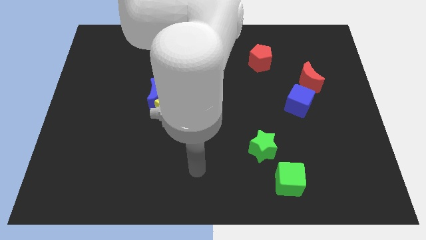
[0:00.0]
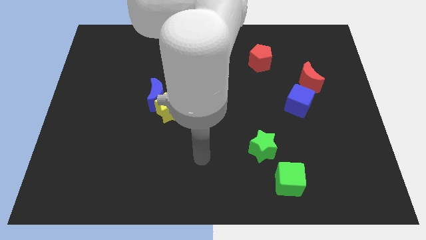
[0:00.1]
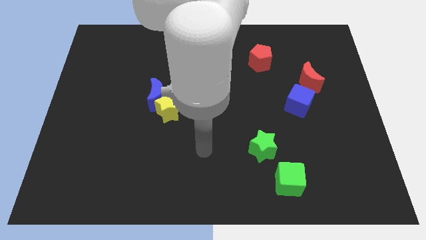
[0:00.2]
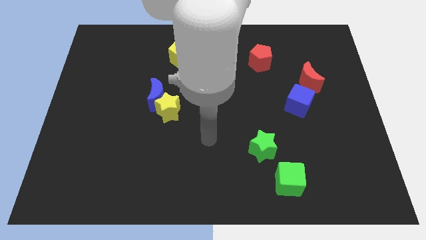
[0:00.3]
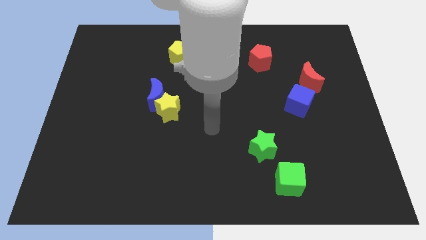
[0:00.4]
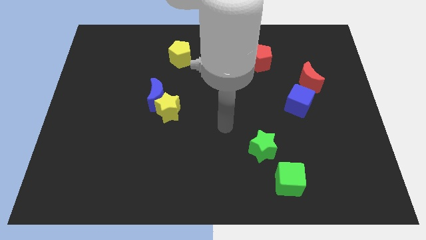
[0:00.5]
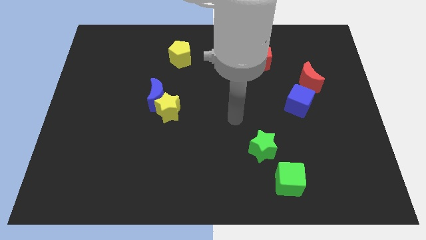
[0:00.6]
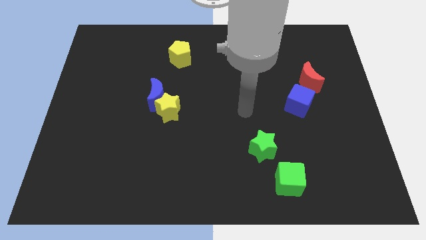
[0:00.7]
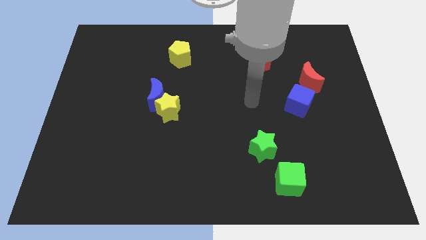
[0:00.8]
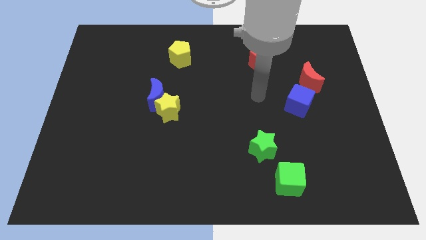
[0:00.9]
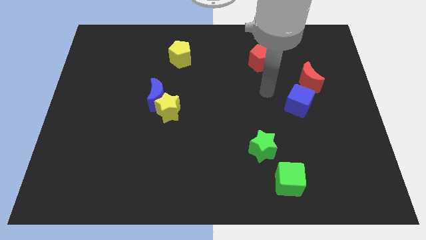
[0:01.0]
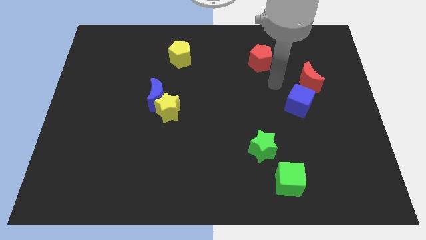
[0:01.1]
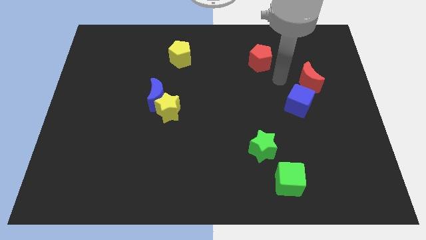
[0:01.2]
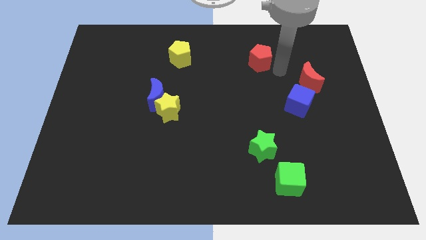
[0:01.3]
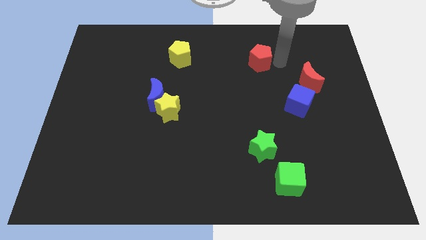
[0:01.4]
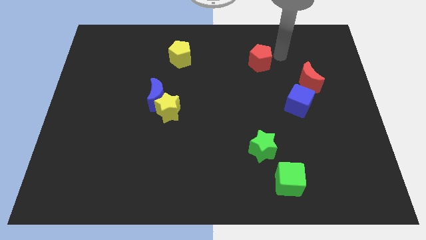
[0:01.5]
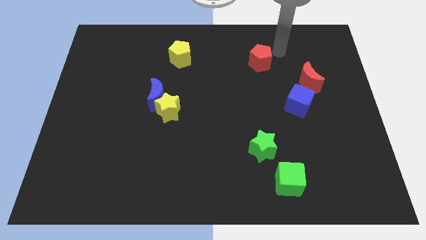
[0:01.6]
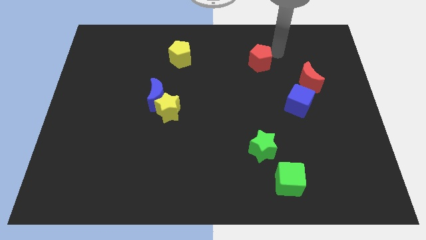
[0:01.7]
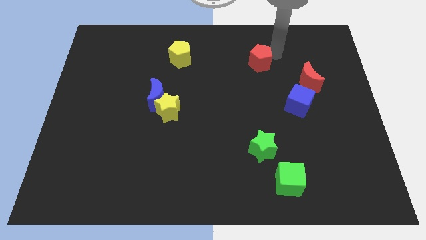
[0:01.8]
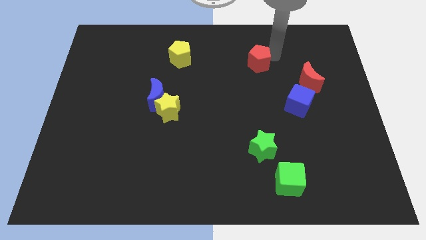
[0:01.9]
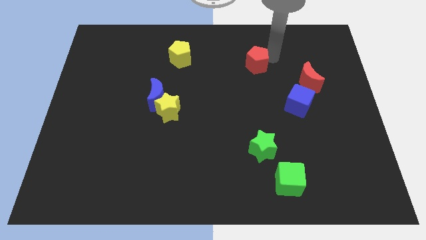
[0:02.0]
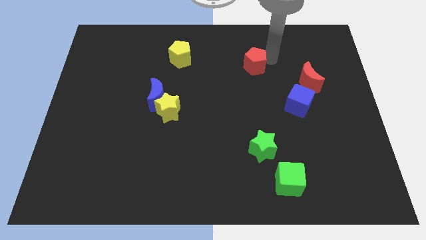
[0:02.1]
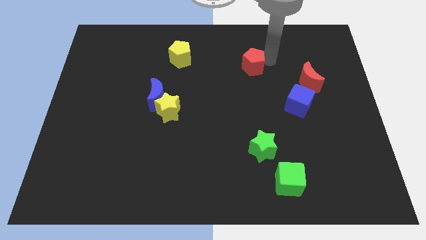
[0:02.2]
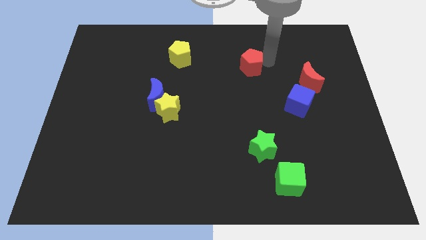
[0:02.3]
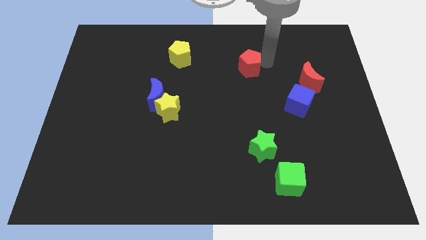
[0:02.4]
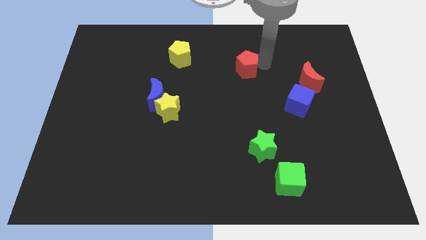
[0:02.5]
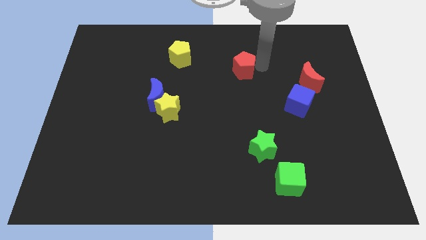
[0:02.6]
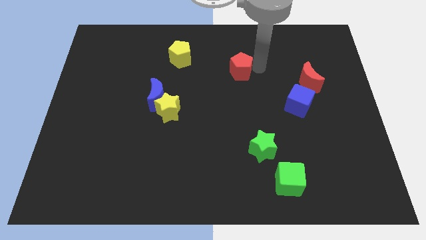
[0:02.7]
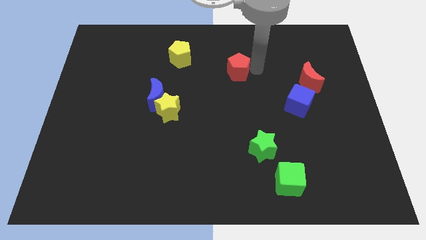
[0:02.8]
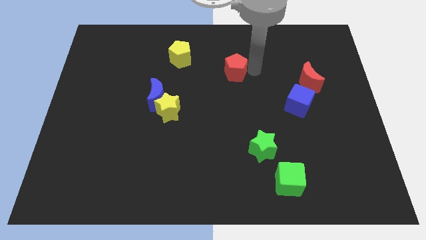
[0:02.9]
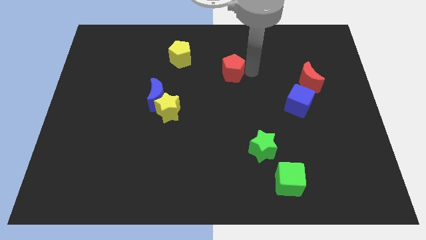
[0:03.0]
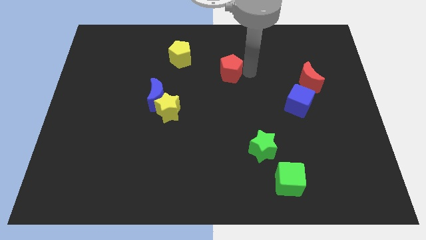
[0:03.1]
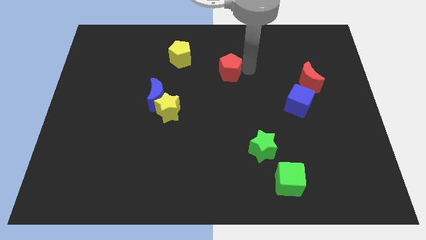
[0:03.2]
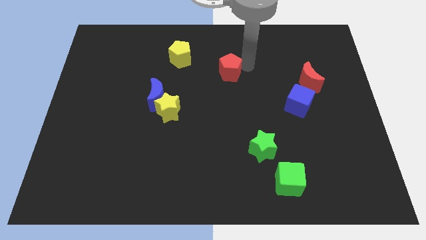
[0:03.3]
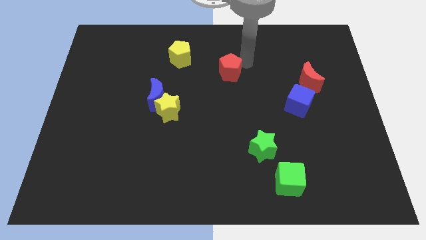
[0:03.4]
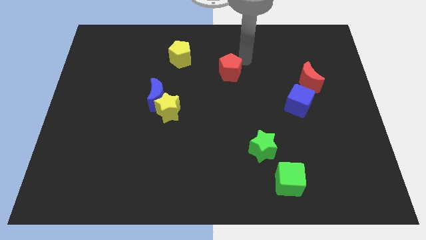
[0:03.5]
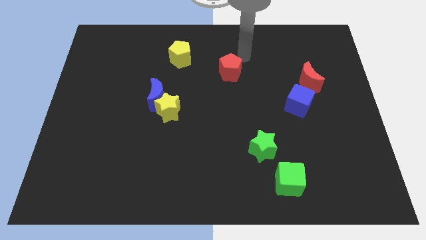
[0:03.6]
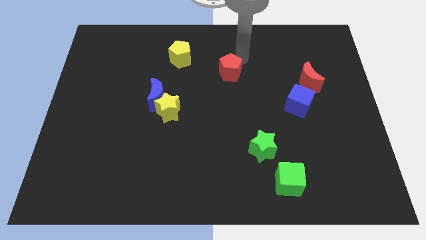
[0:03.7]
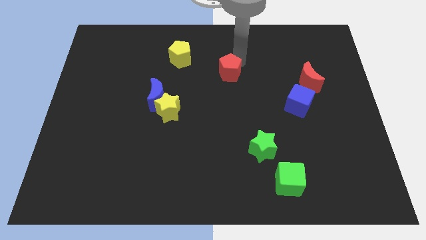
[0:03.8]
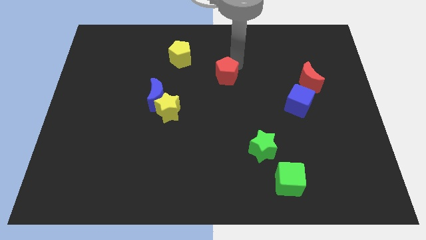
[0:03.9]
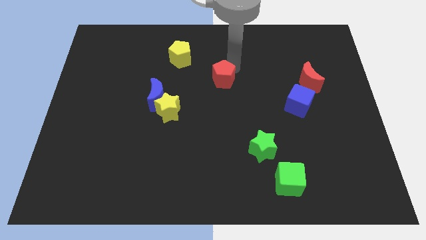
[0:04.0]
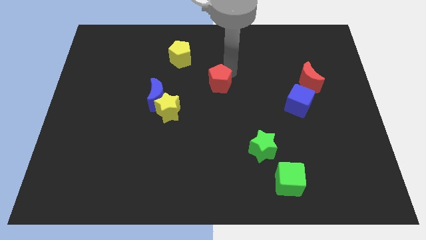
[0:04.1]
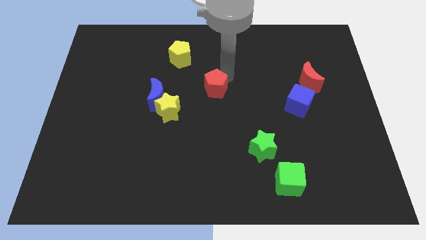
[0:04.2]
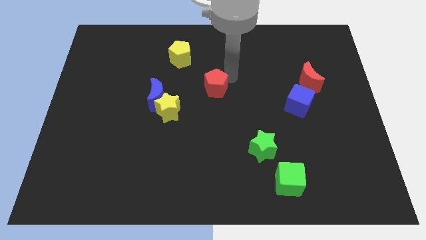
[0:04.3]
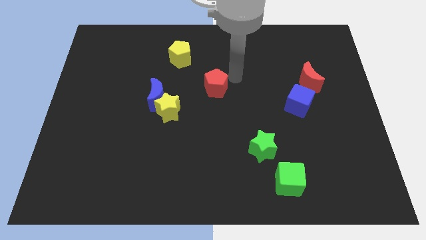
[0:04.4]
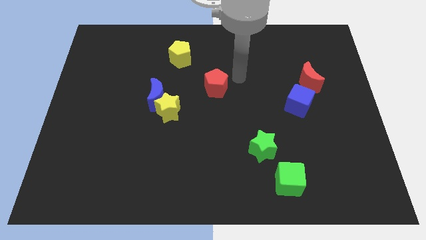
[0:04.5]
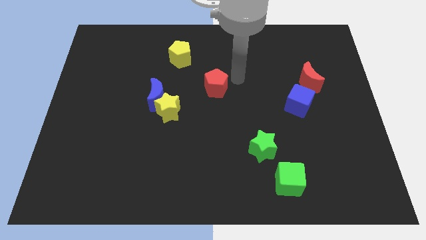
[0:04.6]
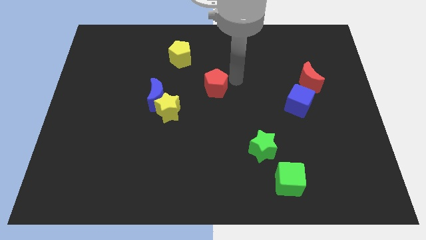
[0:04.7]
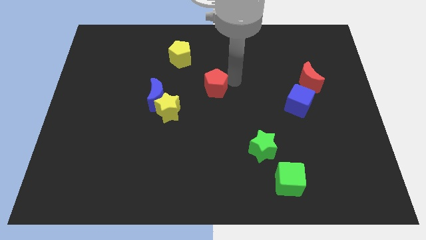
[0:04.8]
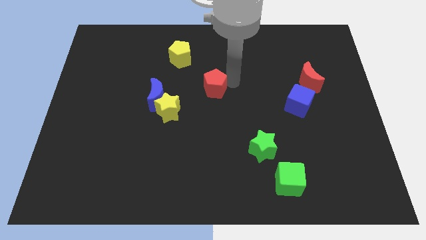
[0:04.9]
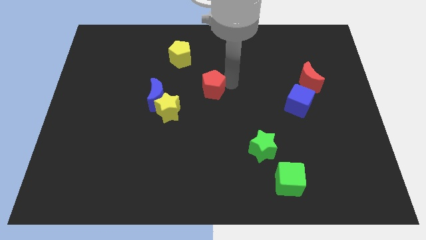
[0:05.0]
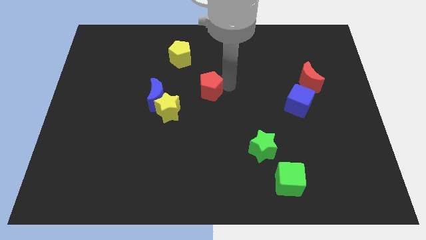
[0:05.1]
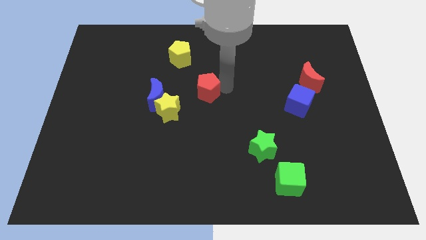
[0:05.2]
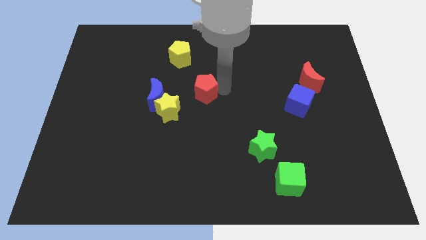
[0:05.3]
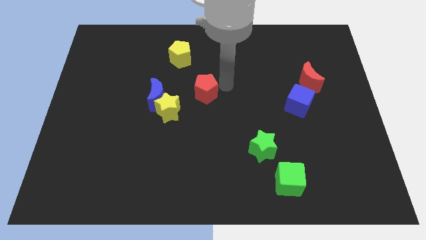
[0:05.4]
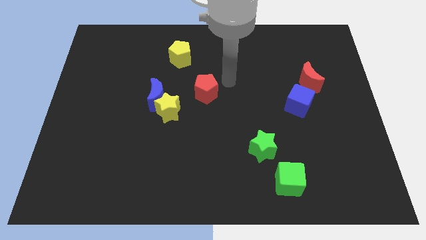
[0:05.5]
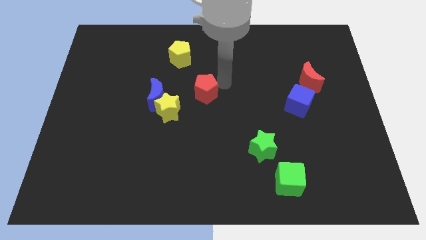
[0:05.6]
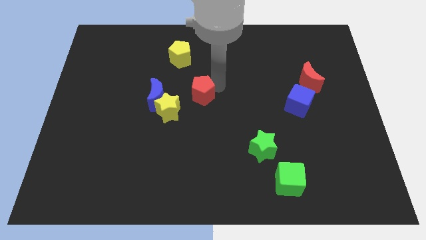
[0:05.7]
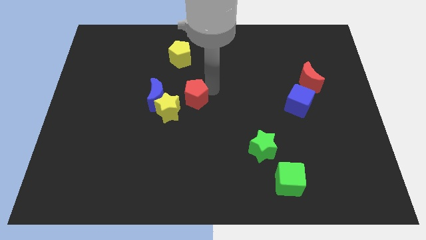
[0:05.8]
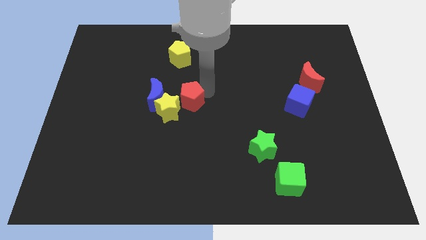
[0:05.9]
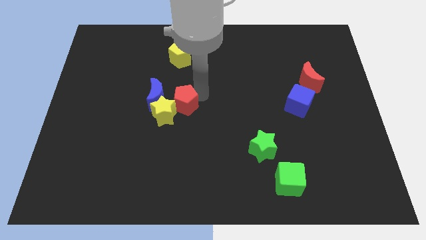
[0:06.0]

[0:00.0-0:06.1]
move the red pentagon to the yellow star

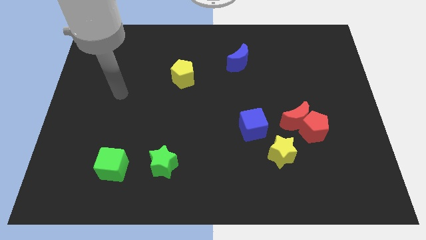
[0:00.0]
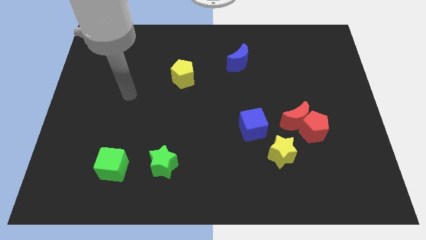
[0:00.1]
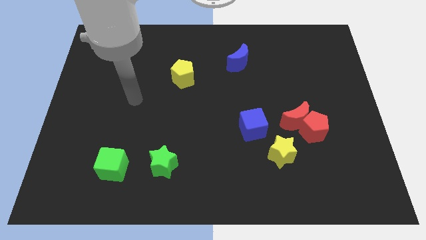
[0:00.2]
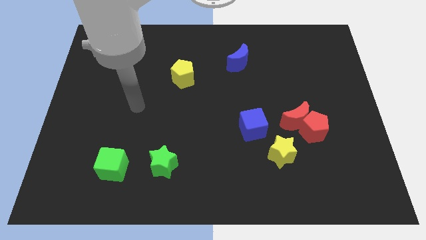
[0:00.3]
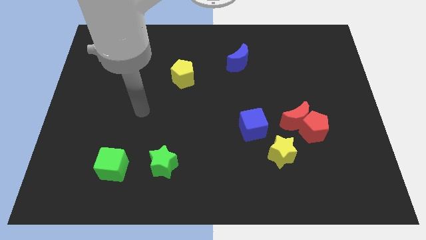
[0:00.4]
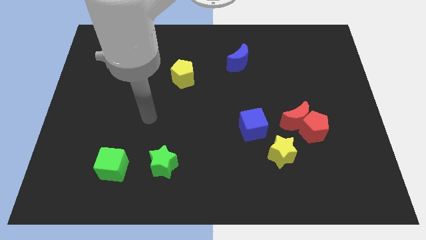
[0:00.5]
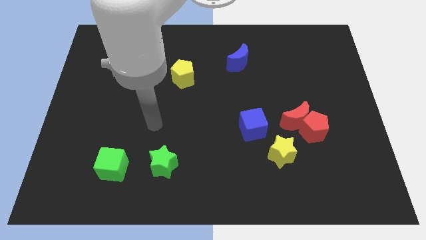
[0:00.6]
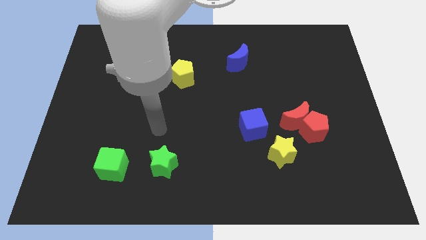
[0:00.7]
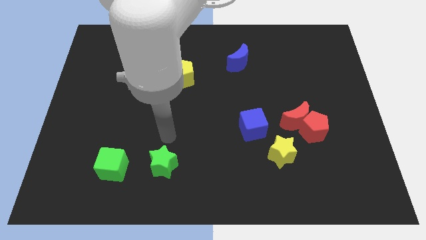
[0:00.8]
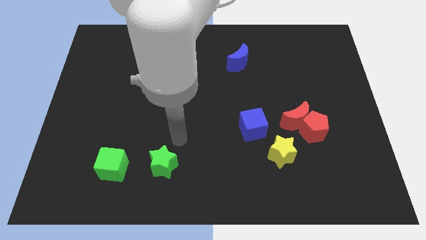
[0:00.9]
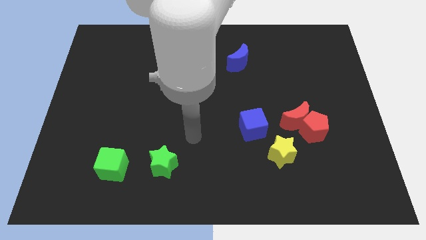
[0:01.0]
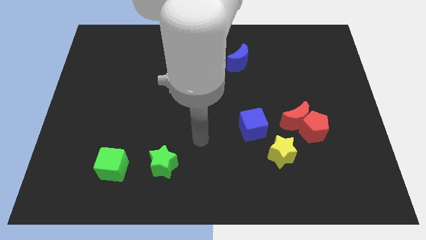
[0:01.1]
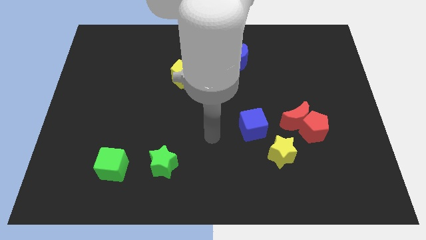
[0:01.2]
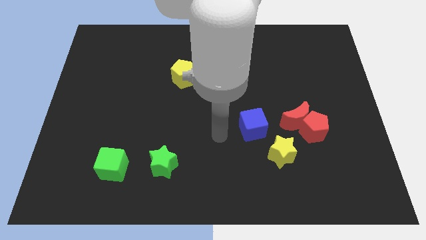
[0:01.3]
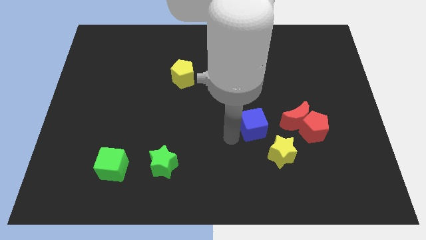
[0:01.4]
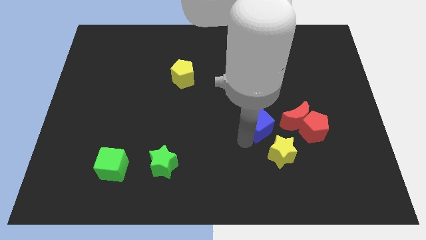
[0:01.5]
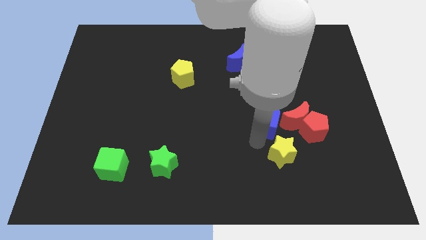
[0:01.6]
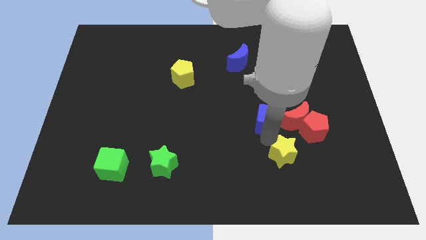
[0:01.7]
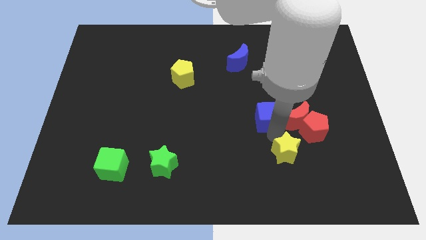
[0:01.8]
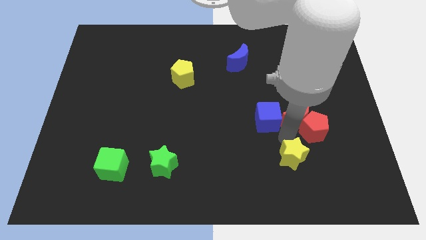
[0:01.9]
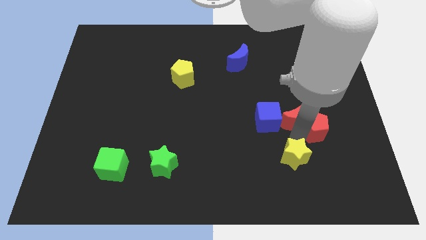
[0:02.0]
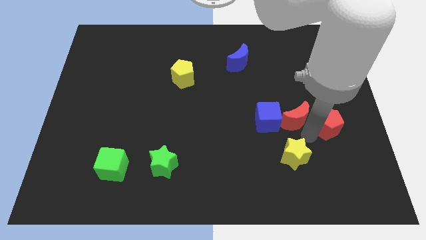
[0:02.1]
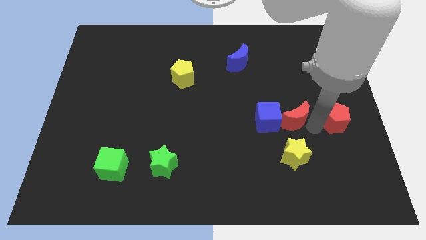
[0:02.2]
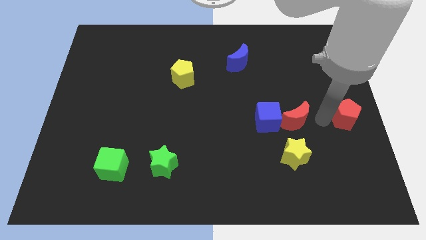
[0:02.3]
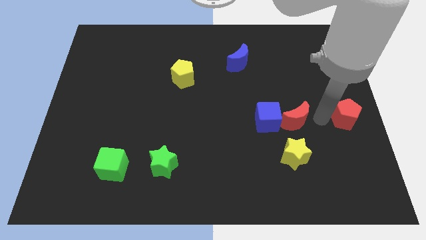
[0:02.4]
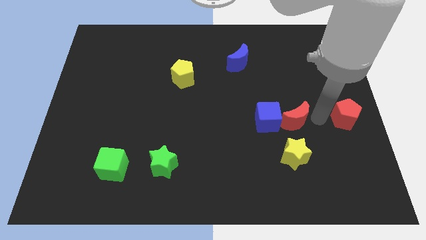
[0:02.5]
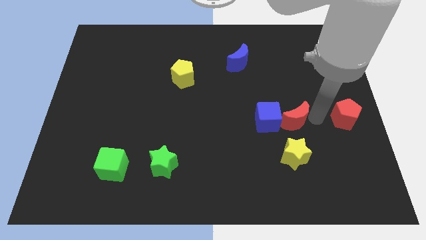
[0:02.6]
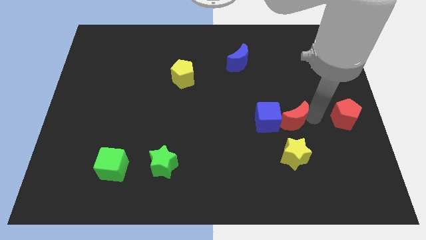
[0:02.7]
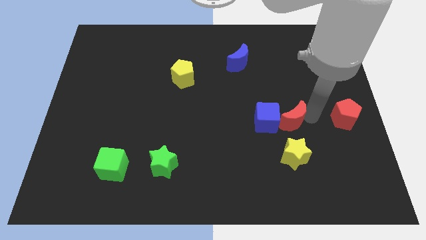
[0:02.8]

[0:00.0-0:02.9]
move the red moon close to the blue cube
